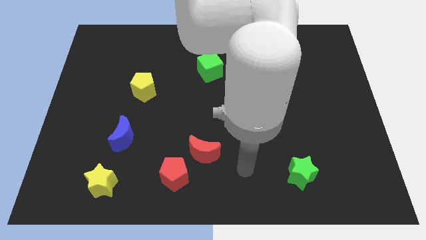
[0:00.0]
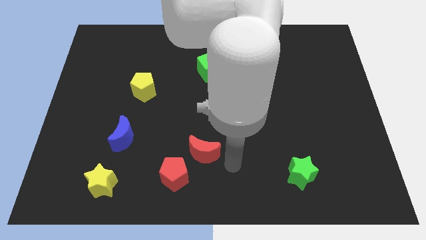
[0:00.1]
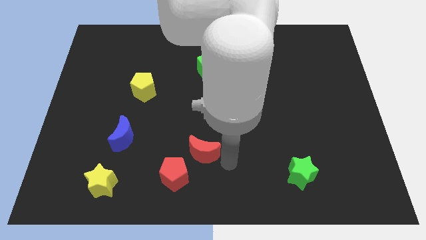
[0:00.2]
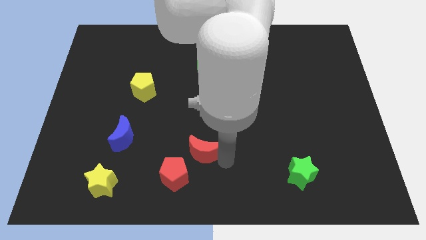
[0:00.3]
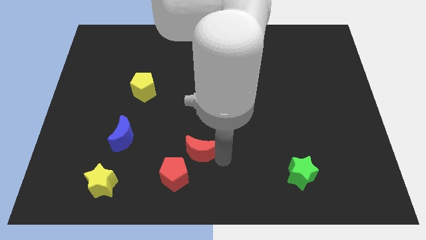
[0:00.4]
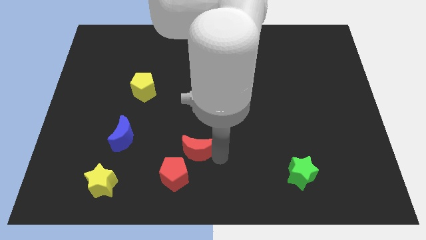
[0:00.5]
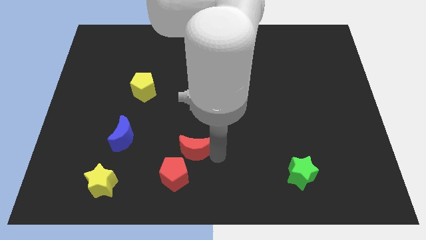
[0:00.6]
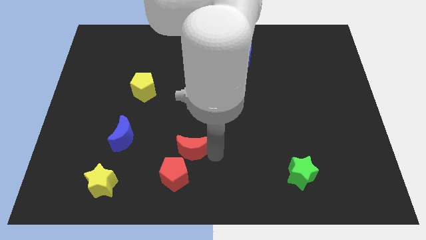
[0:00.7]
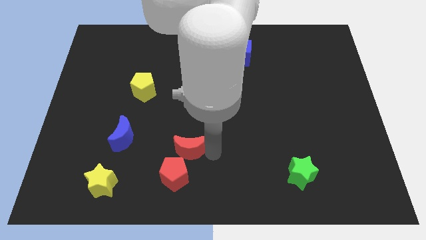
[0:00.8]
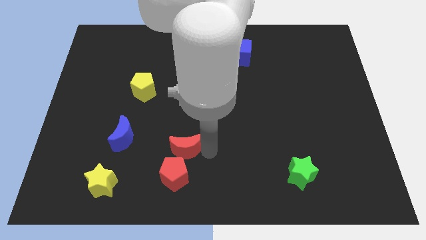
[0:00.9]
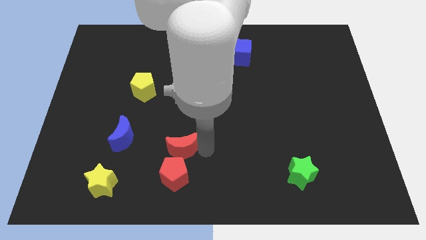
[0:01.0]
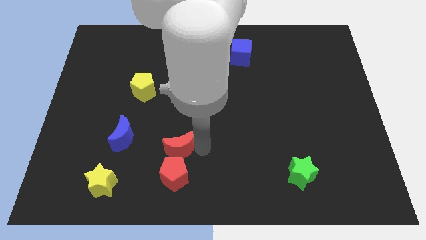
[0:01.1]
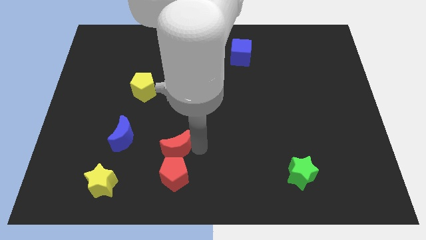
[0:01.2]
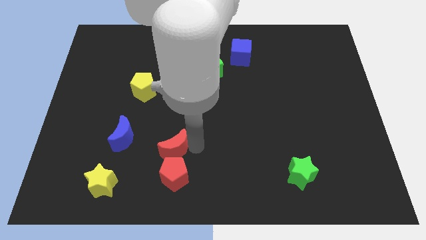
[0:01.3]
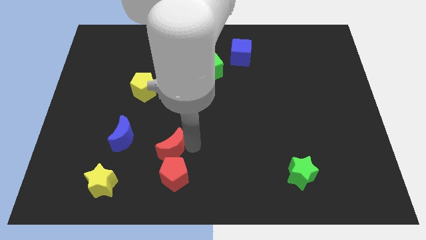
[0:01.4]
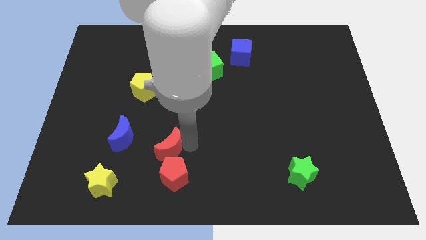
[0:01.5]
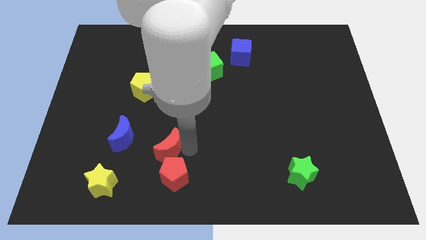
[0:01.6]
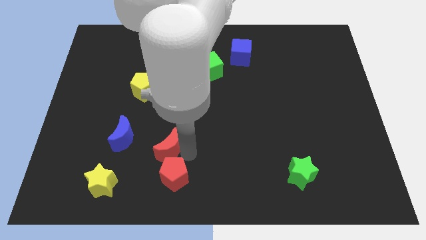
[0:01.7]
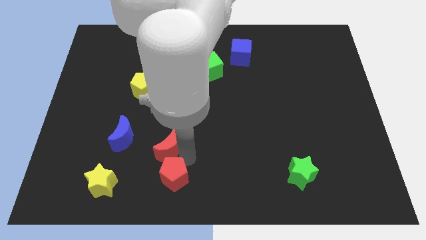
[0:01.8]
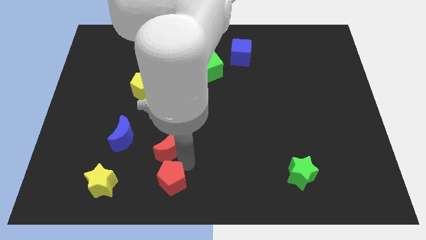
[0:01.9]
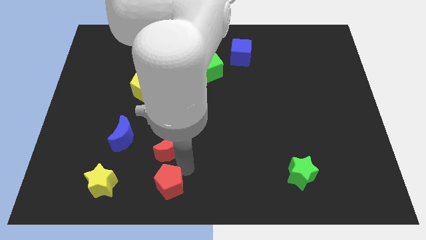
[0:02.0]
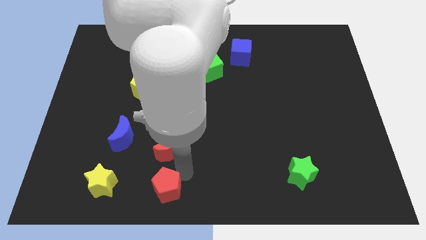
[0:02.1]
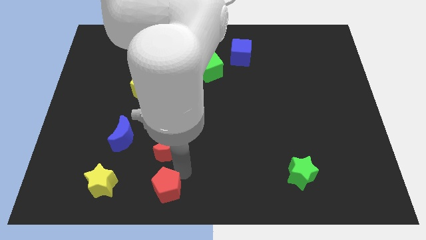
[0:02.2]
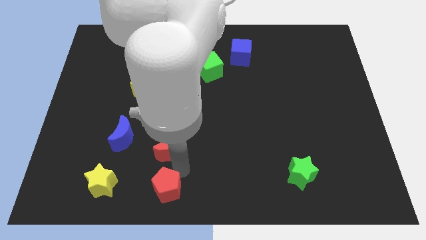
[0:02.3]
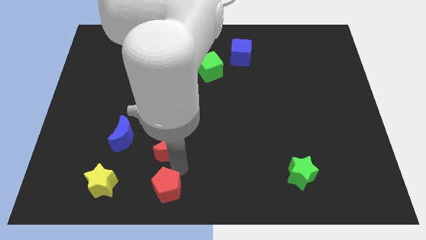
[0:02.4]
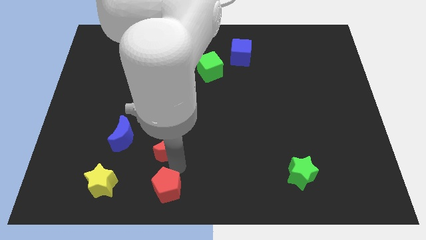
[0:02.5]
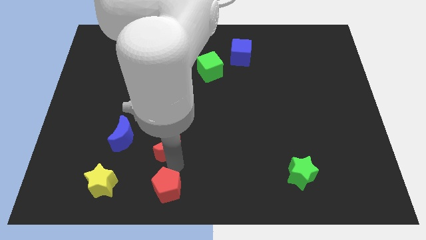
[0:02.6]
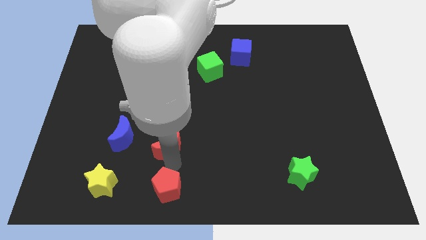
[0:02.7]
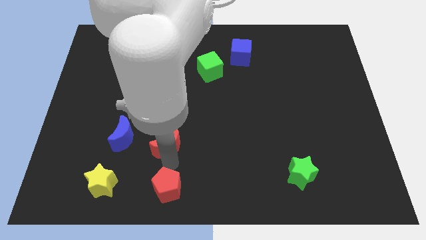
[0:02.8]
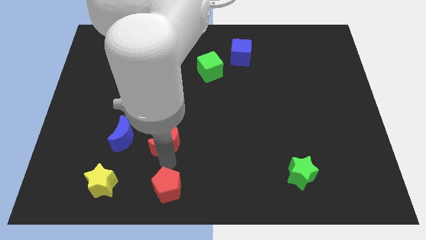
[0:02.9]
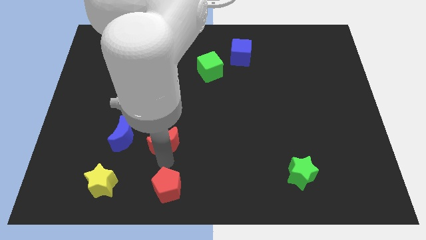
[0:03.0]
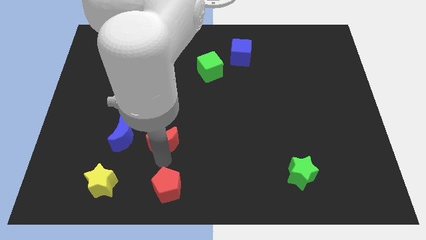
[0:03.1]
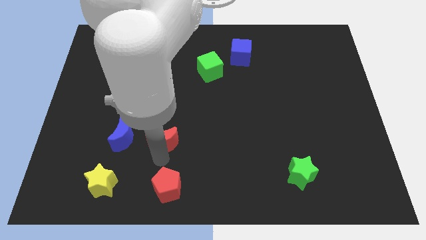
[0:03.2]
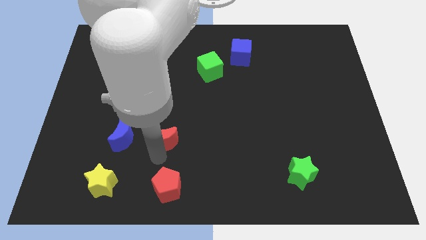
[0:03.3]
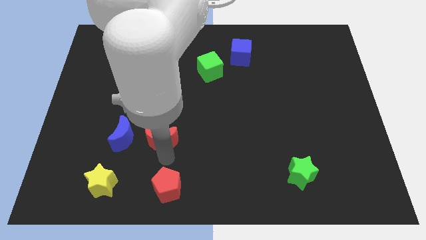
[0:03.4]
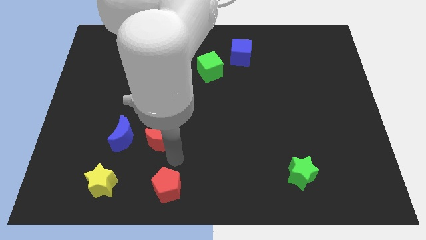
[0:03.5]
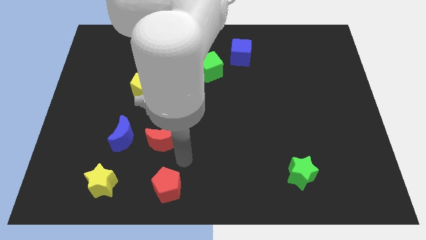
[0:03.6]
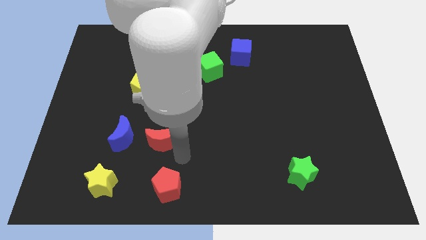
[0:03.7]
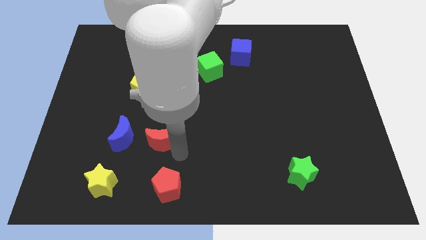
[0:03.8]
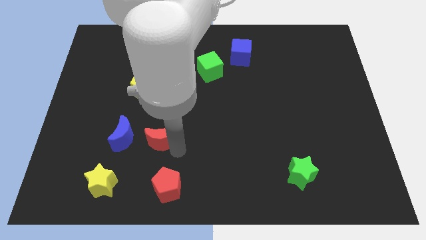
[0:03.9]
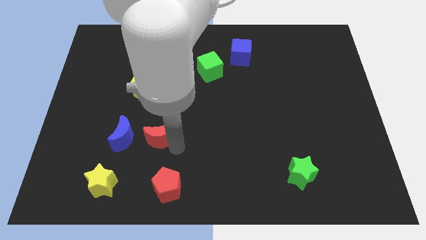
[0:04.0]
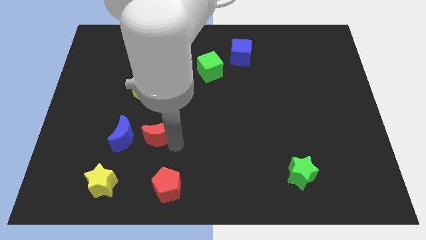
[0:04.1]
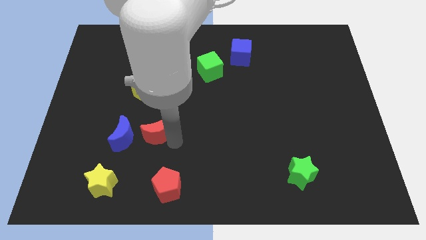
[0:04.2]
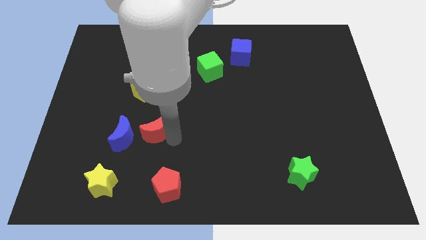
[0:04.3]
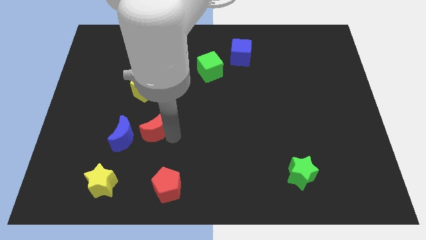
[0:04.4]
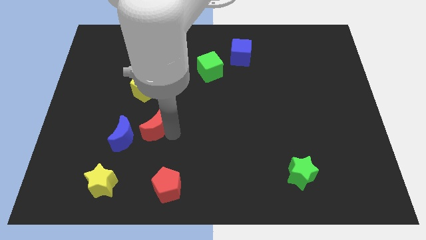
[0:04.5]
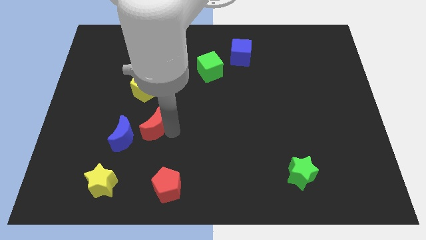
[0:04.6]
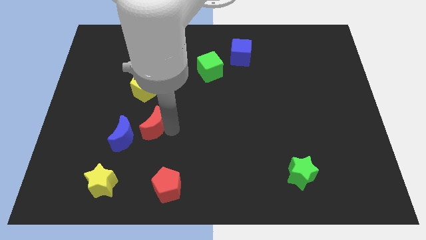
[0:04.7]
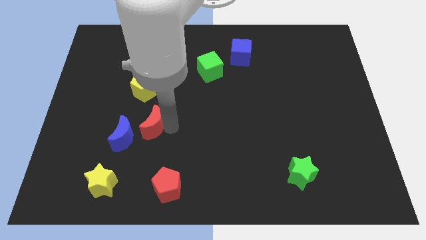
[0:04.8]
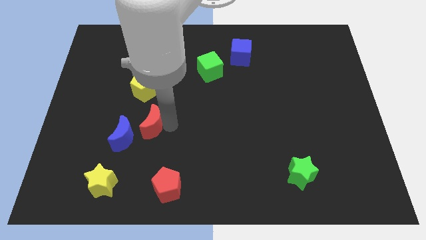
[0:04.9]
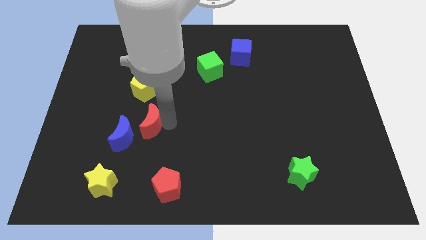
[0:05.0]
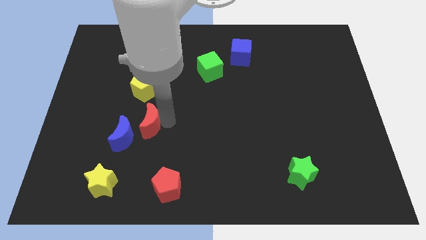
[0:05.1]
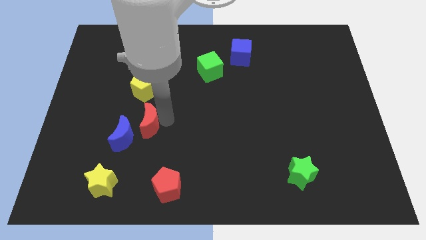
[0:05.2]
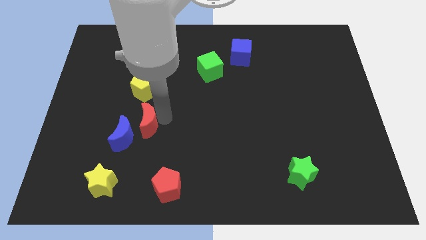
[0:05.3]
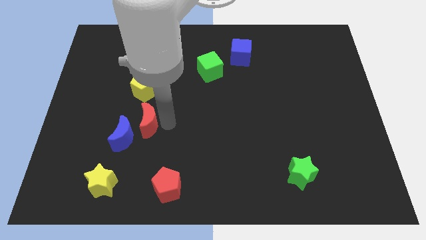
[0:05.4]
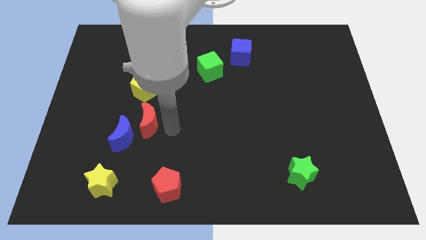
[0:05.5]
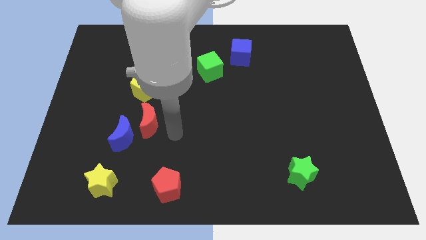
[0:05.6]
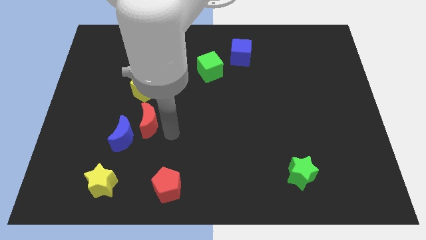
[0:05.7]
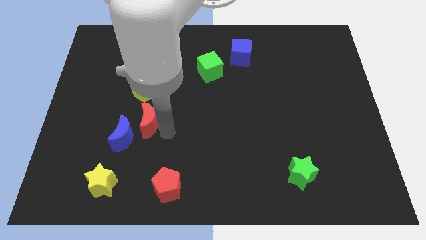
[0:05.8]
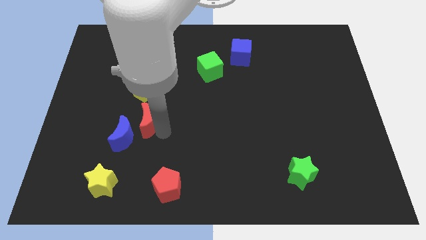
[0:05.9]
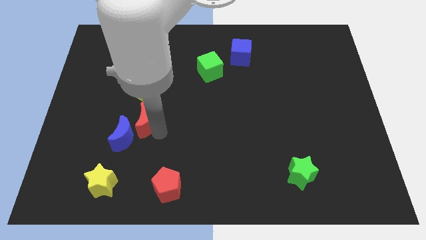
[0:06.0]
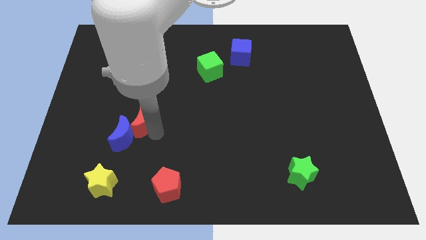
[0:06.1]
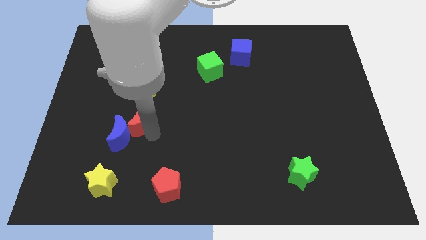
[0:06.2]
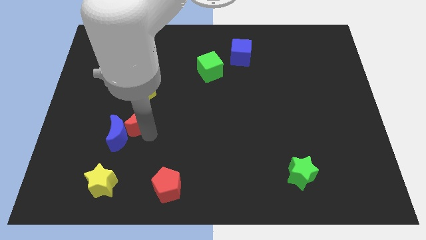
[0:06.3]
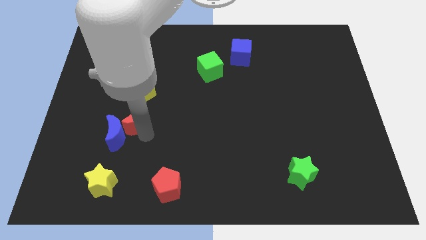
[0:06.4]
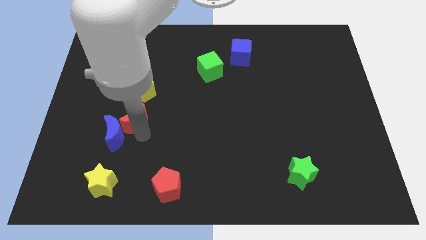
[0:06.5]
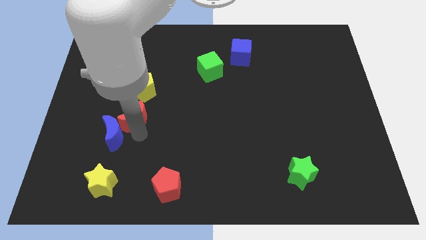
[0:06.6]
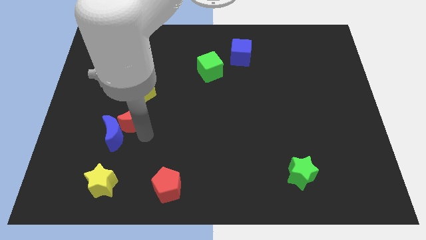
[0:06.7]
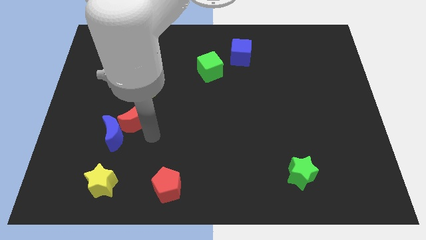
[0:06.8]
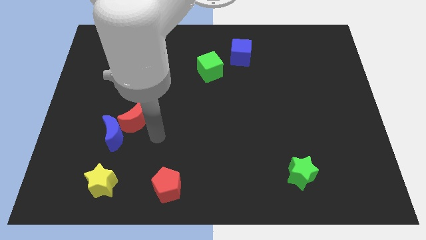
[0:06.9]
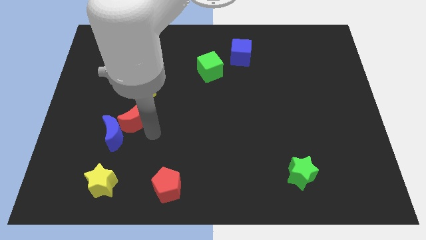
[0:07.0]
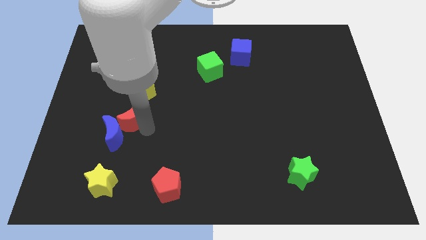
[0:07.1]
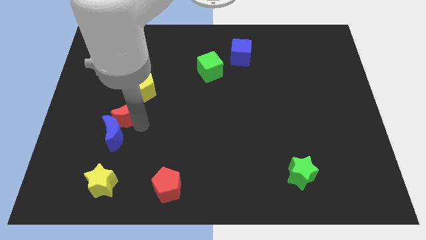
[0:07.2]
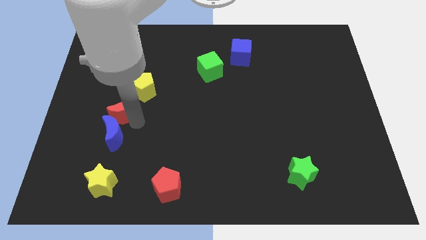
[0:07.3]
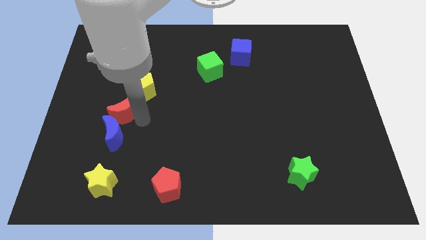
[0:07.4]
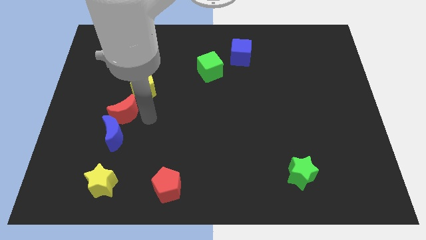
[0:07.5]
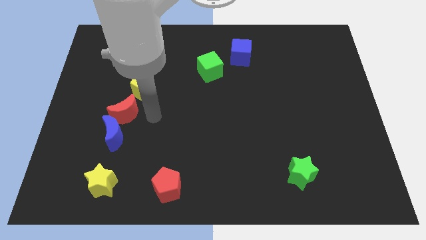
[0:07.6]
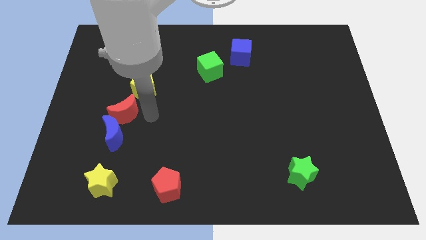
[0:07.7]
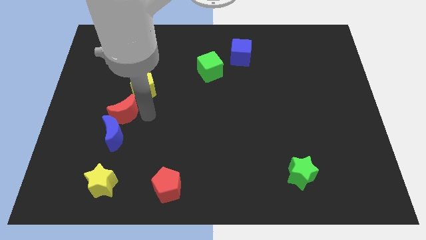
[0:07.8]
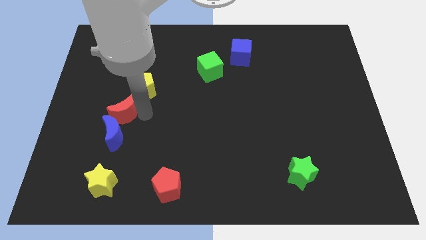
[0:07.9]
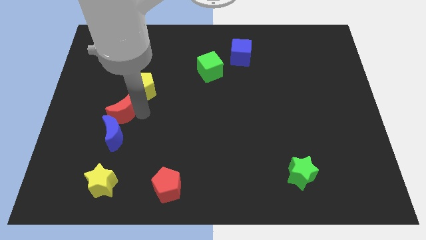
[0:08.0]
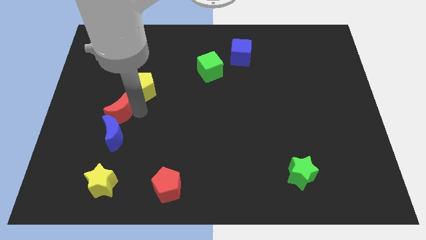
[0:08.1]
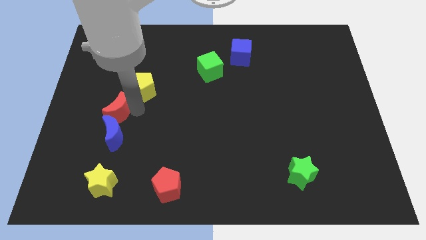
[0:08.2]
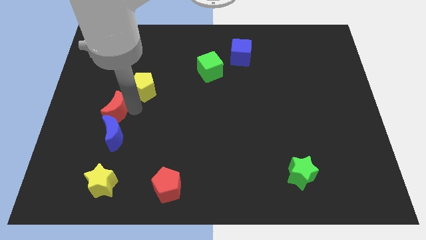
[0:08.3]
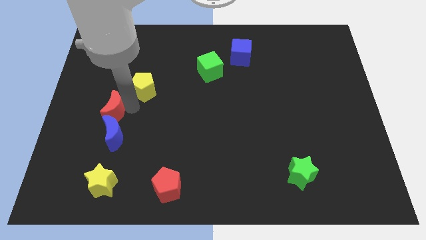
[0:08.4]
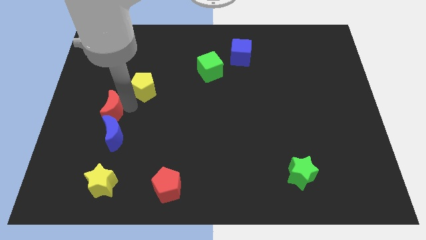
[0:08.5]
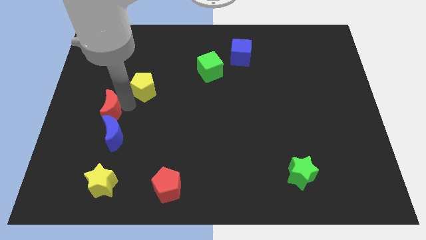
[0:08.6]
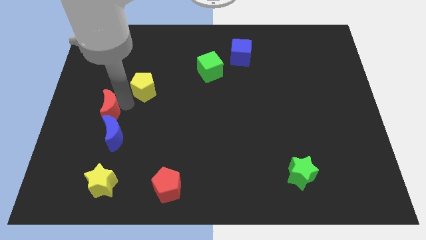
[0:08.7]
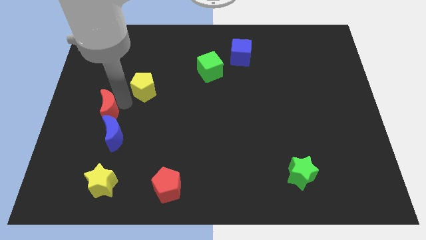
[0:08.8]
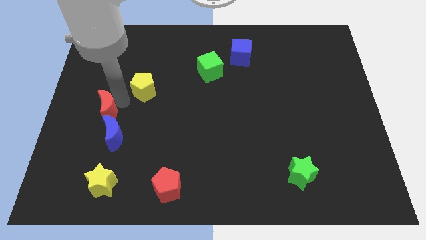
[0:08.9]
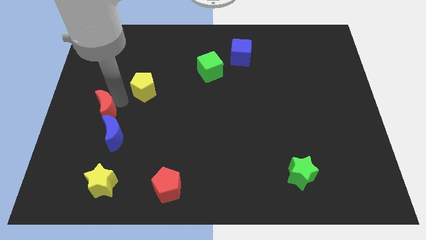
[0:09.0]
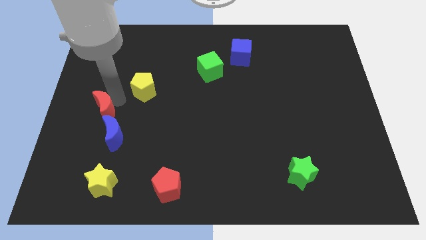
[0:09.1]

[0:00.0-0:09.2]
move the red moon to the left side
